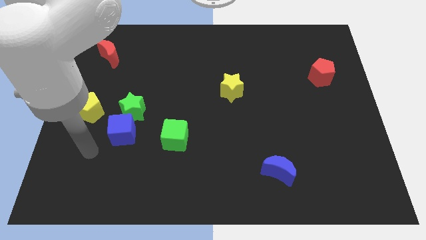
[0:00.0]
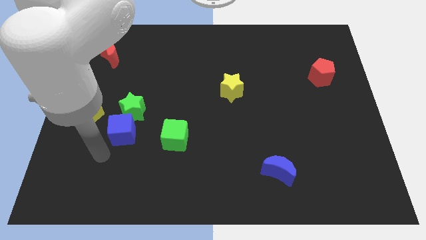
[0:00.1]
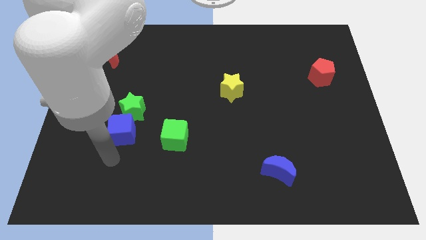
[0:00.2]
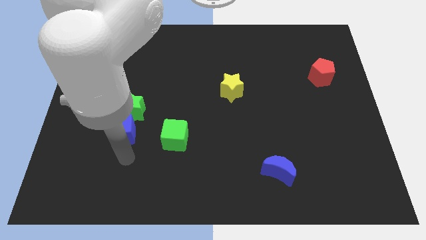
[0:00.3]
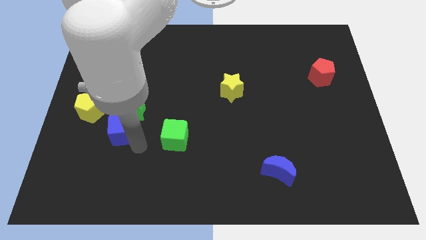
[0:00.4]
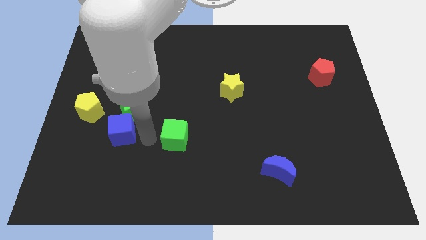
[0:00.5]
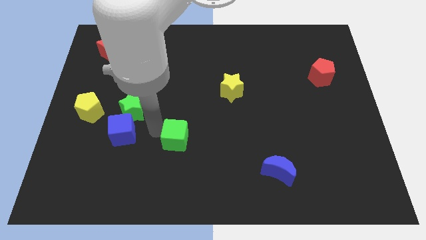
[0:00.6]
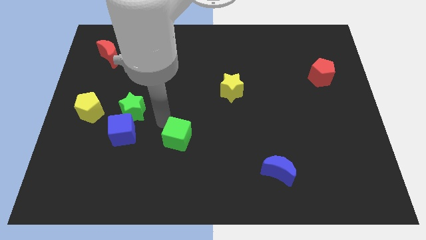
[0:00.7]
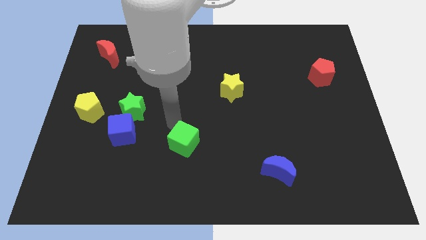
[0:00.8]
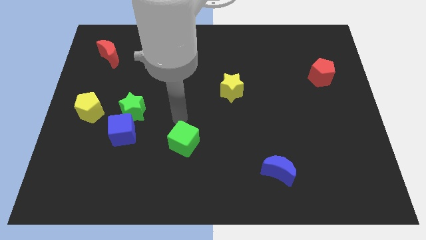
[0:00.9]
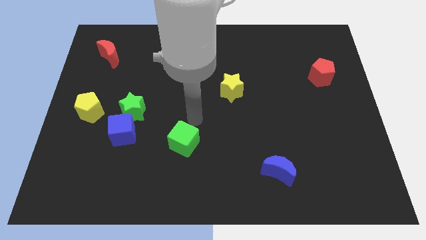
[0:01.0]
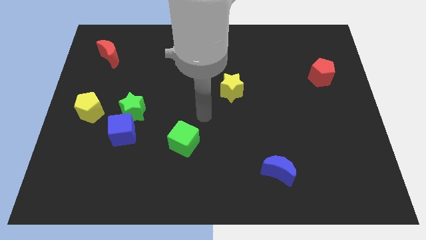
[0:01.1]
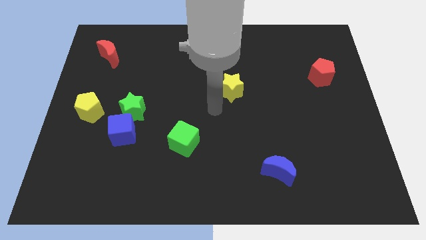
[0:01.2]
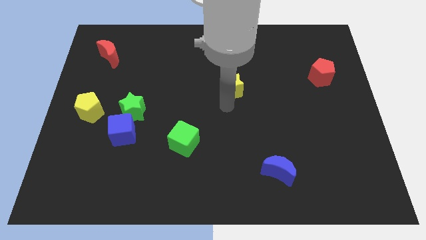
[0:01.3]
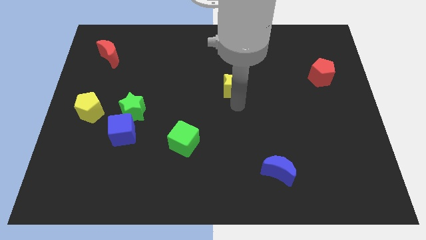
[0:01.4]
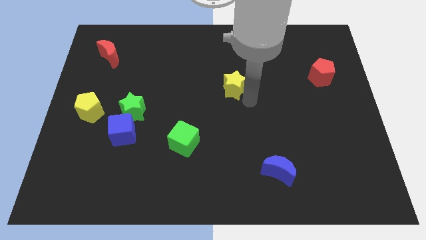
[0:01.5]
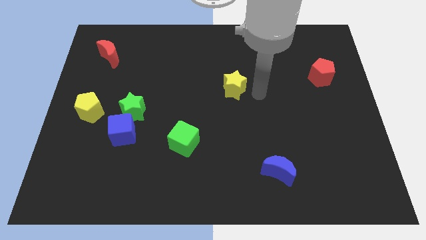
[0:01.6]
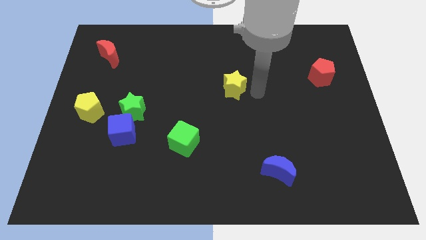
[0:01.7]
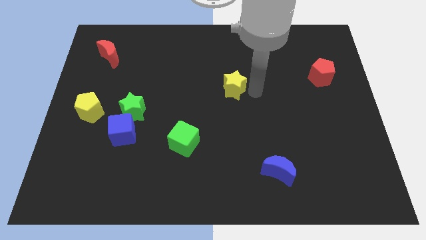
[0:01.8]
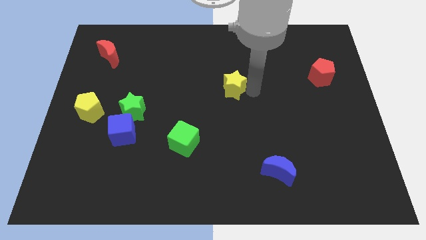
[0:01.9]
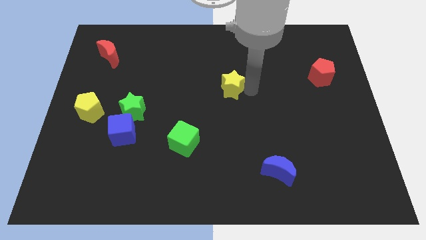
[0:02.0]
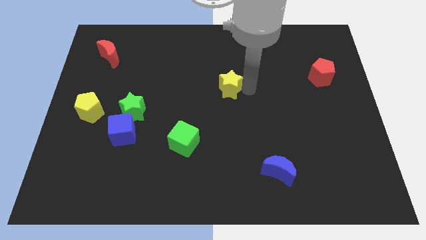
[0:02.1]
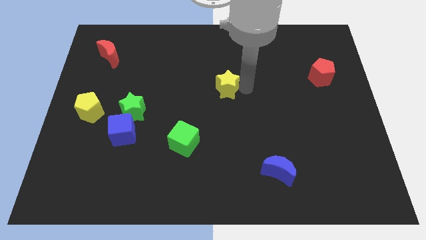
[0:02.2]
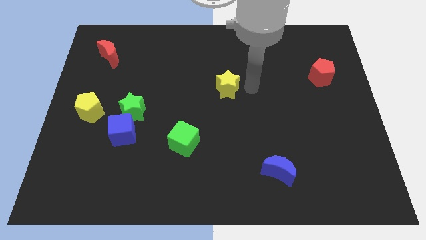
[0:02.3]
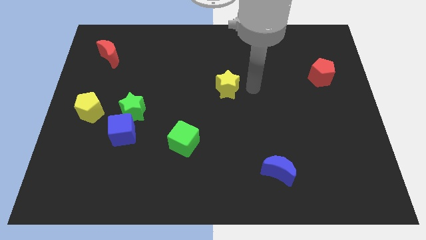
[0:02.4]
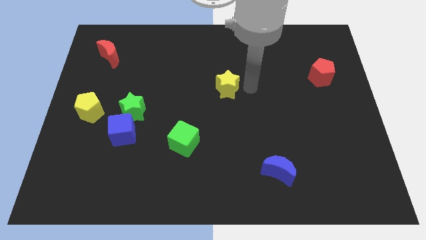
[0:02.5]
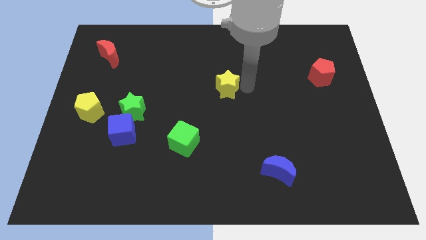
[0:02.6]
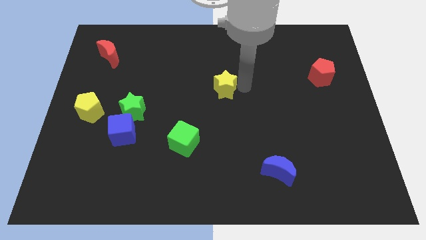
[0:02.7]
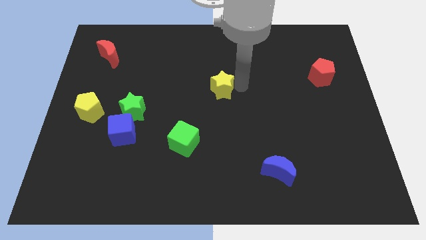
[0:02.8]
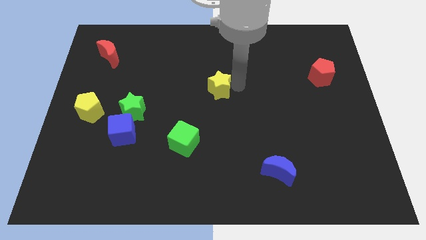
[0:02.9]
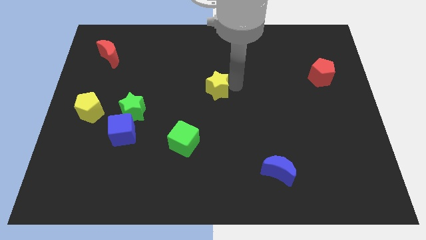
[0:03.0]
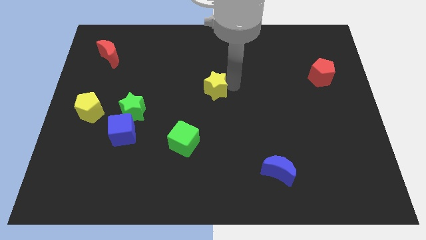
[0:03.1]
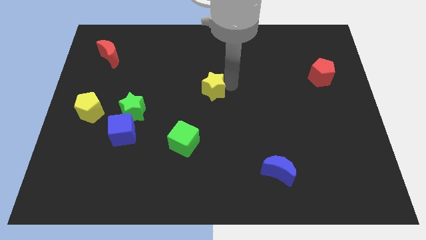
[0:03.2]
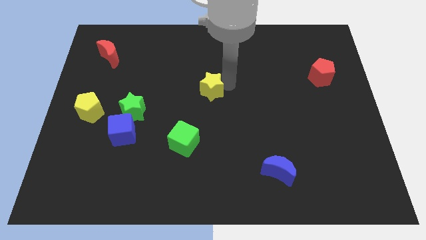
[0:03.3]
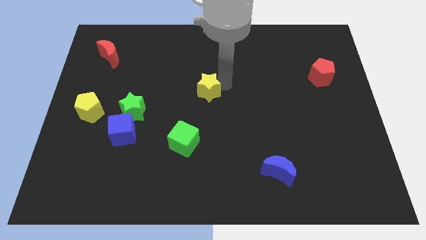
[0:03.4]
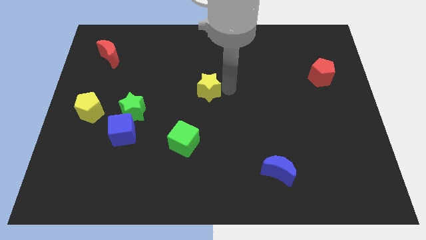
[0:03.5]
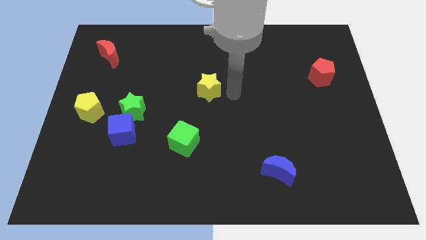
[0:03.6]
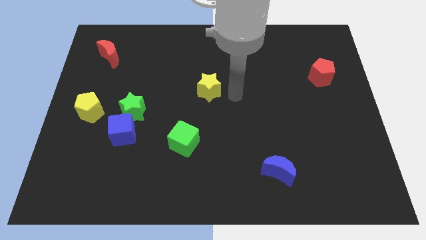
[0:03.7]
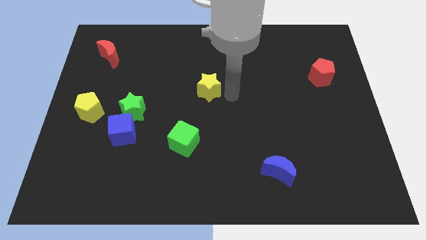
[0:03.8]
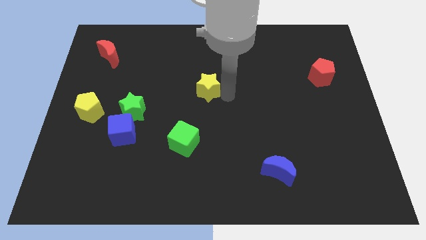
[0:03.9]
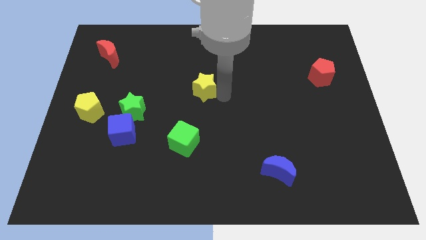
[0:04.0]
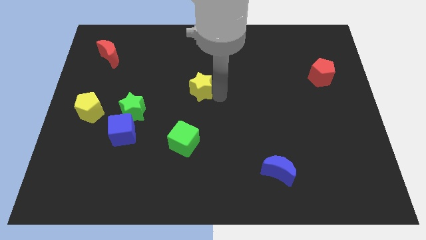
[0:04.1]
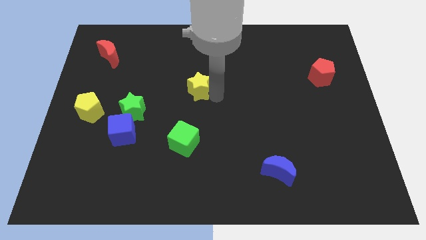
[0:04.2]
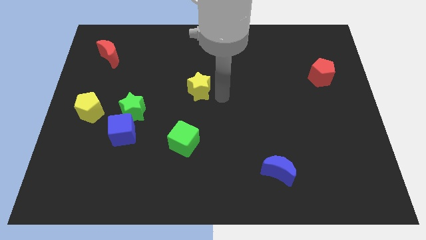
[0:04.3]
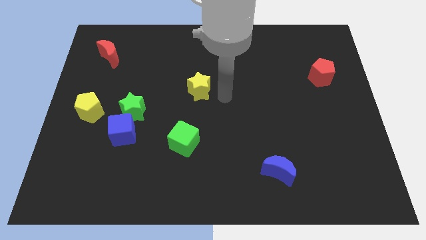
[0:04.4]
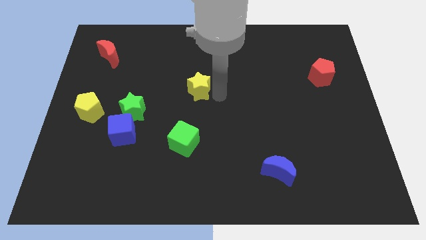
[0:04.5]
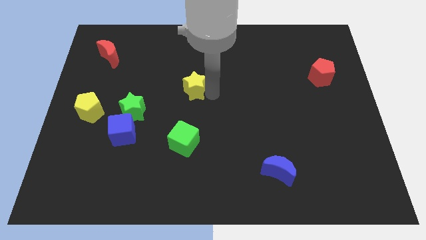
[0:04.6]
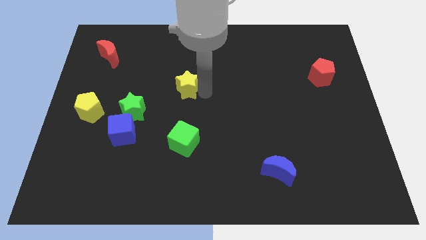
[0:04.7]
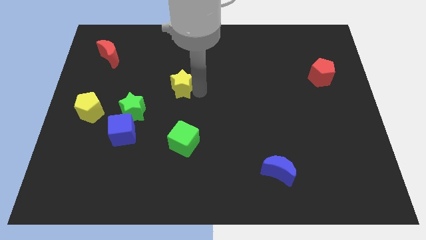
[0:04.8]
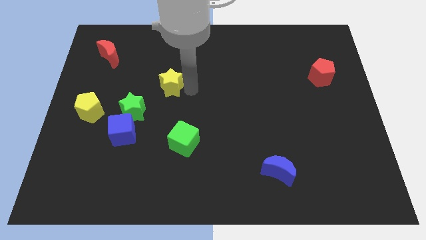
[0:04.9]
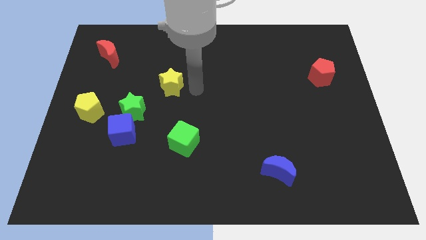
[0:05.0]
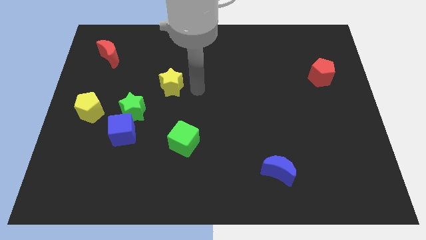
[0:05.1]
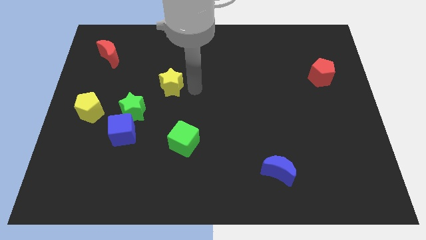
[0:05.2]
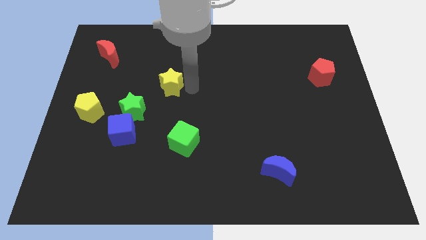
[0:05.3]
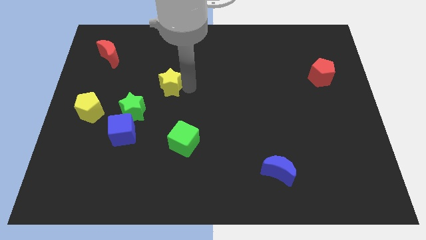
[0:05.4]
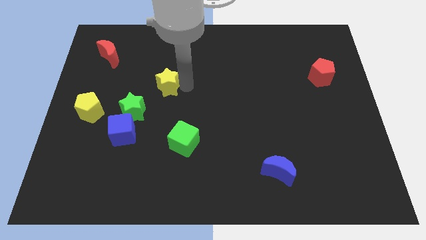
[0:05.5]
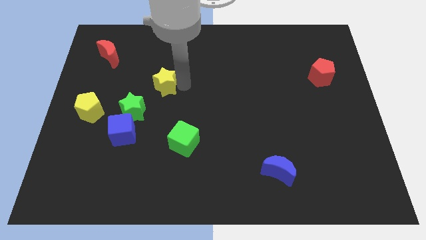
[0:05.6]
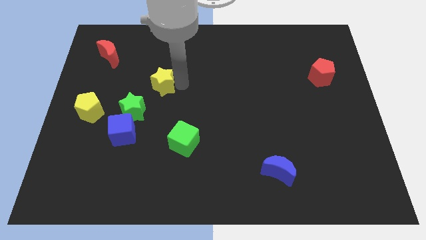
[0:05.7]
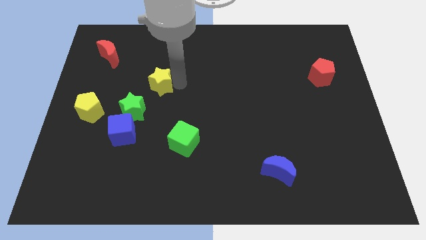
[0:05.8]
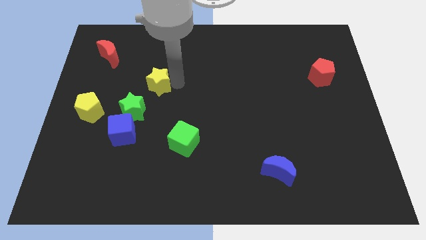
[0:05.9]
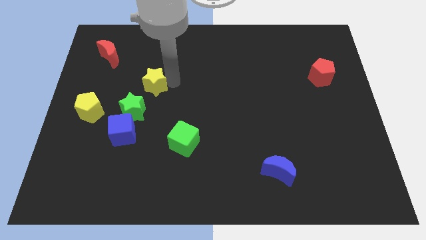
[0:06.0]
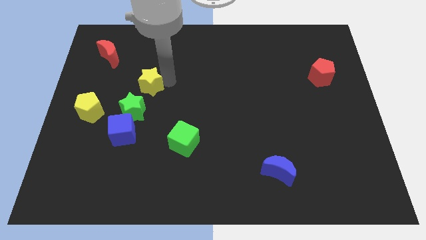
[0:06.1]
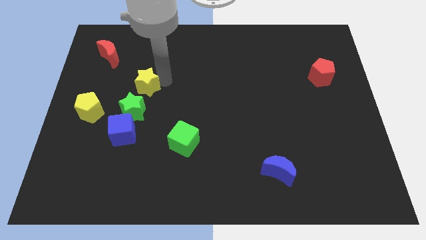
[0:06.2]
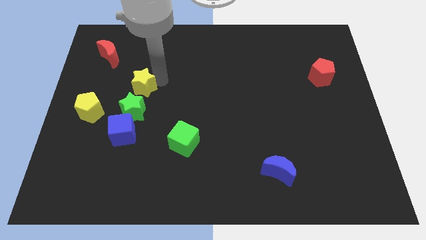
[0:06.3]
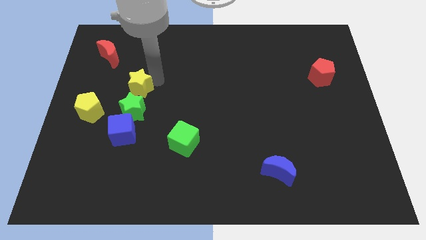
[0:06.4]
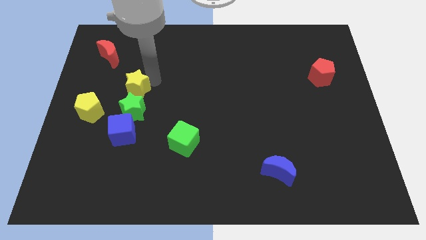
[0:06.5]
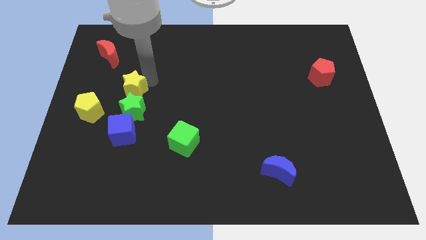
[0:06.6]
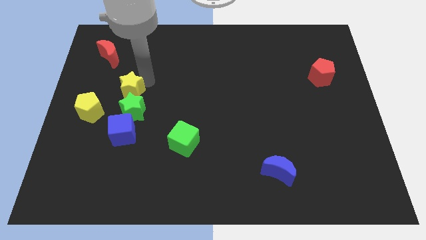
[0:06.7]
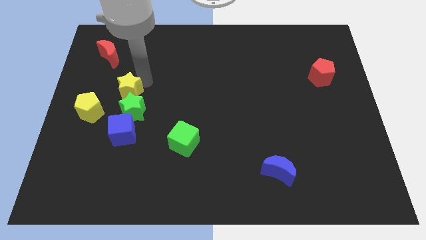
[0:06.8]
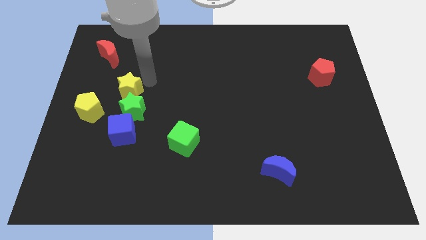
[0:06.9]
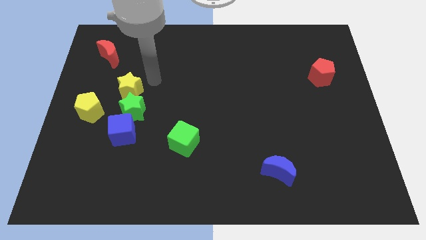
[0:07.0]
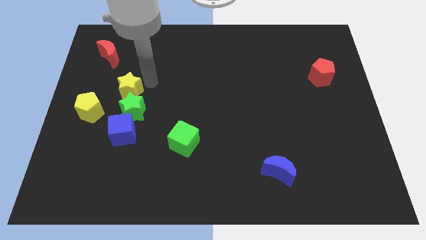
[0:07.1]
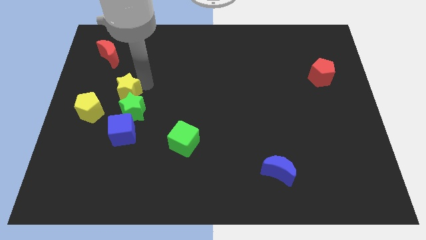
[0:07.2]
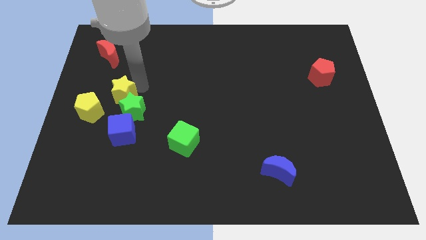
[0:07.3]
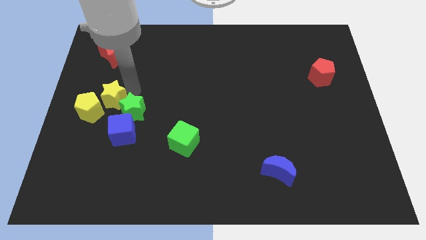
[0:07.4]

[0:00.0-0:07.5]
slide the yellow star towards the yellow pentagon
